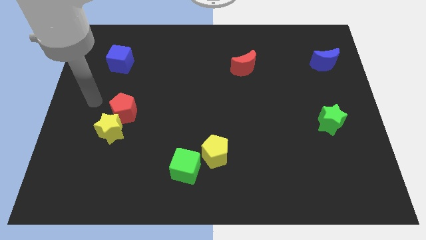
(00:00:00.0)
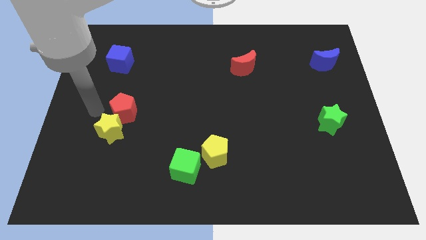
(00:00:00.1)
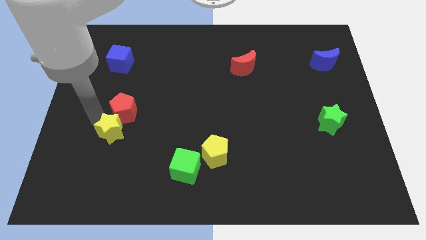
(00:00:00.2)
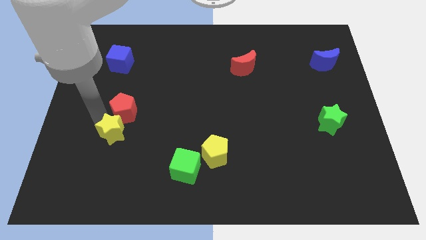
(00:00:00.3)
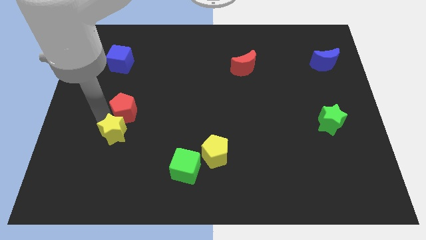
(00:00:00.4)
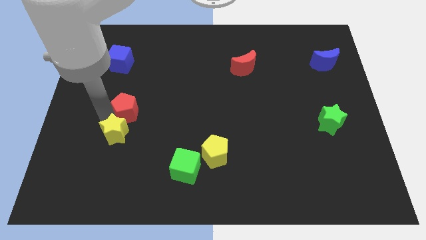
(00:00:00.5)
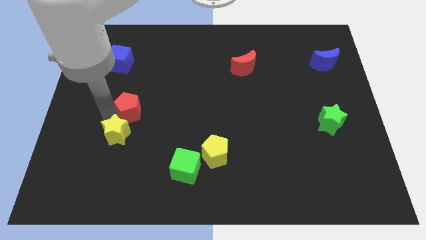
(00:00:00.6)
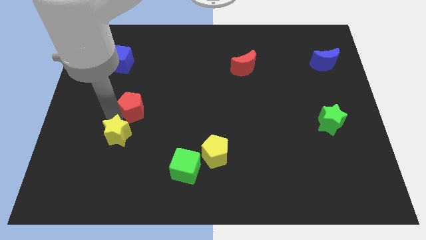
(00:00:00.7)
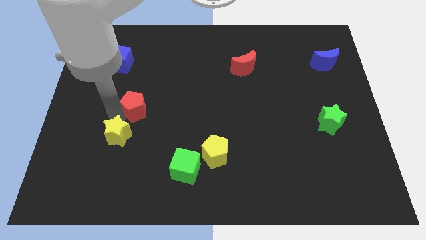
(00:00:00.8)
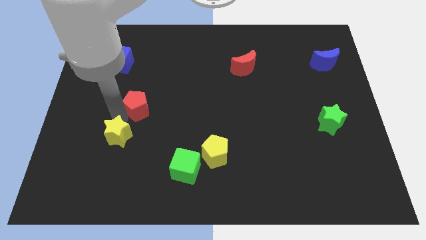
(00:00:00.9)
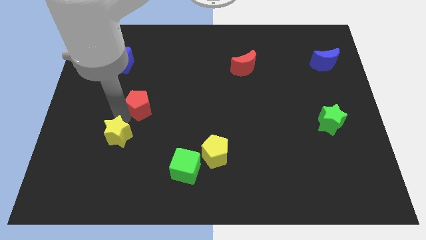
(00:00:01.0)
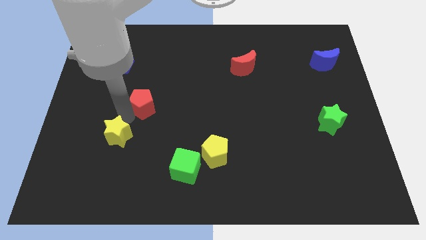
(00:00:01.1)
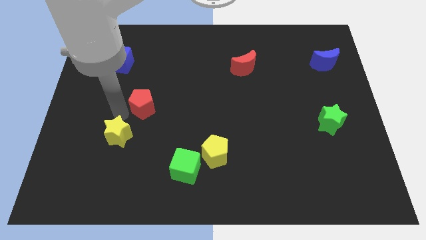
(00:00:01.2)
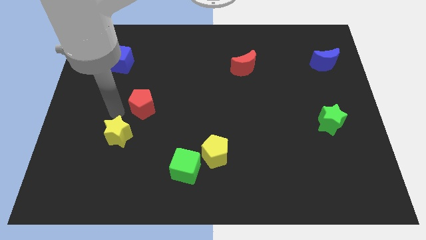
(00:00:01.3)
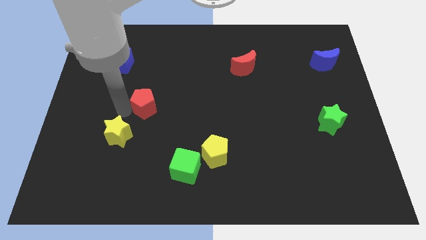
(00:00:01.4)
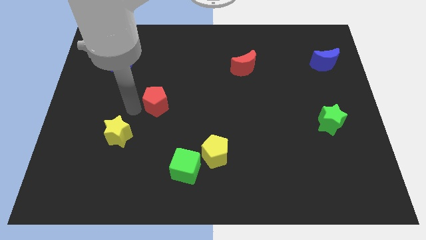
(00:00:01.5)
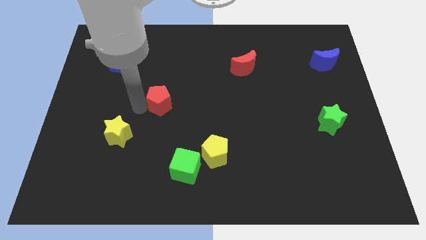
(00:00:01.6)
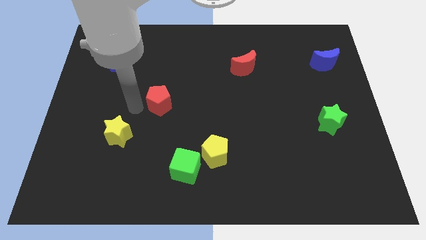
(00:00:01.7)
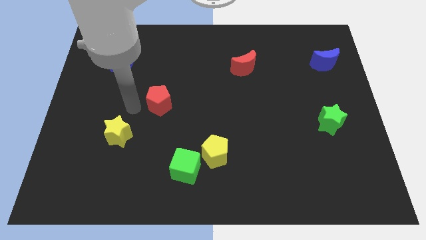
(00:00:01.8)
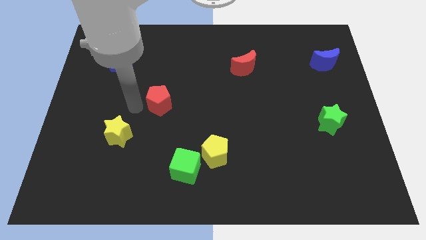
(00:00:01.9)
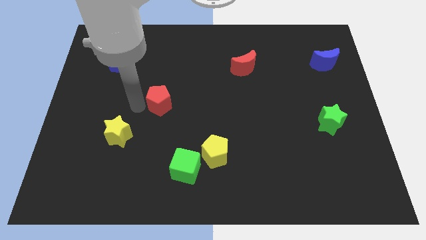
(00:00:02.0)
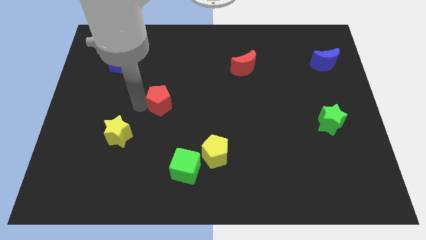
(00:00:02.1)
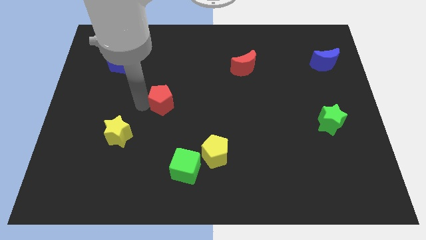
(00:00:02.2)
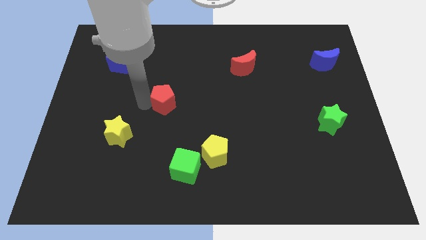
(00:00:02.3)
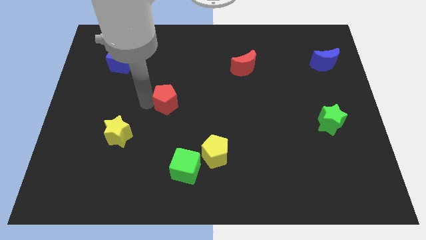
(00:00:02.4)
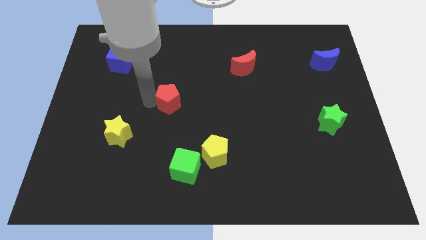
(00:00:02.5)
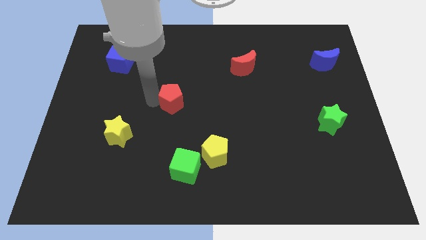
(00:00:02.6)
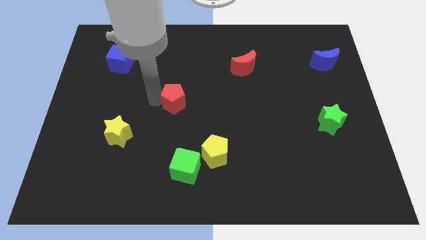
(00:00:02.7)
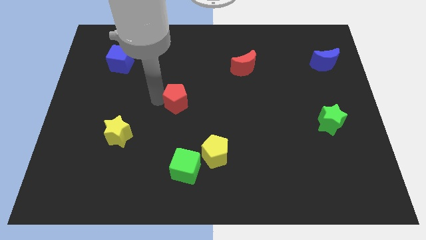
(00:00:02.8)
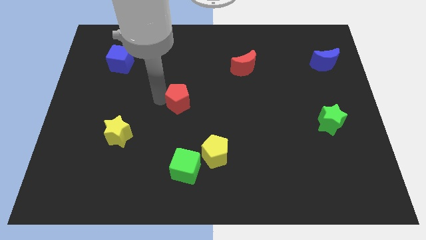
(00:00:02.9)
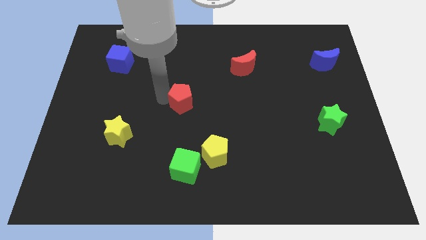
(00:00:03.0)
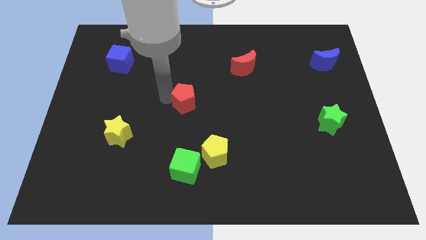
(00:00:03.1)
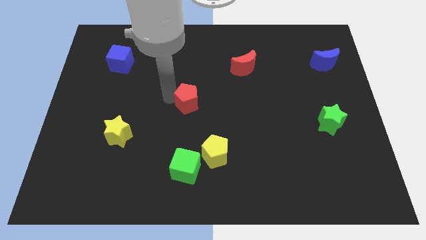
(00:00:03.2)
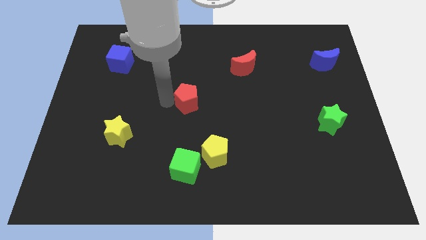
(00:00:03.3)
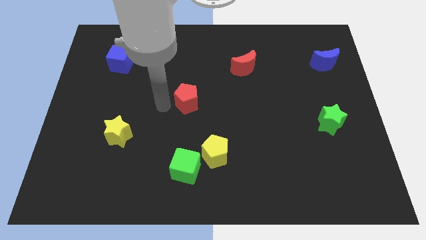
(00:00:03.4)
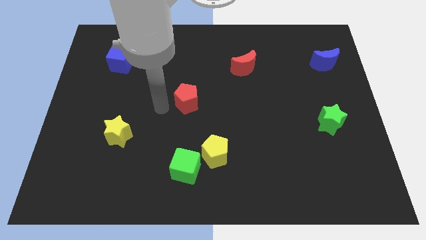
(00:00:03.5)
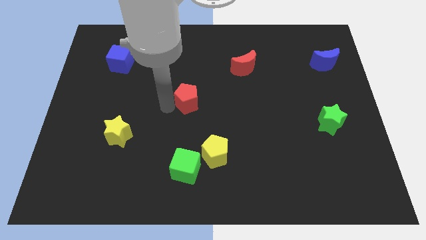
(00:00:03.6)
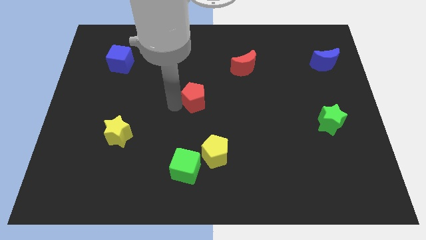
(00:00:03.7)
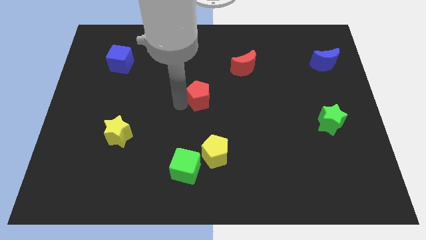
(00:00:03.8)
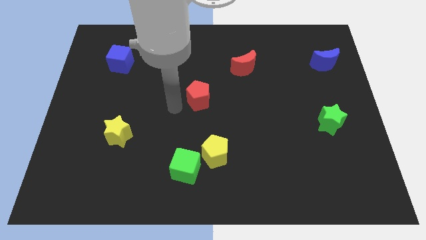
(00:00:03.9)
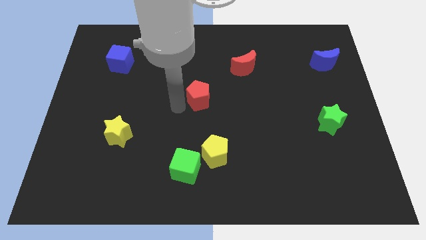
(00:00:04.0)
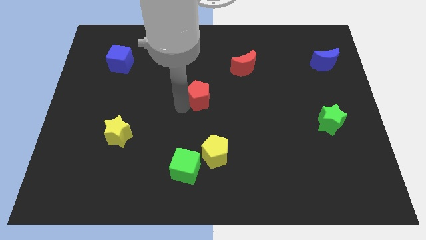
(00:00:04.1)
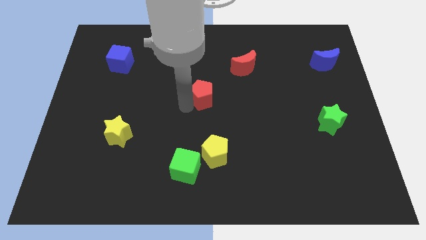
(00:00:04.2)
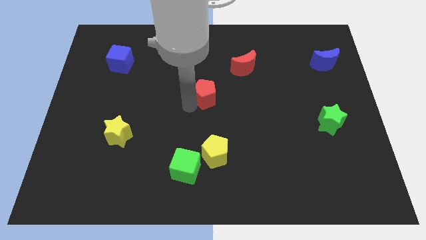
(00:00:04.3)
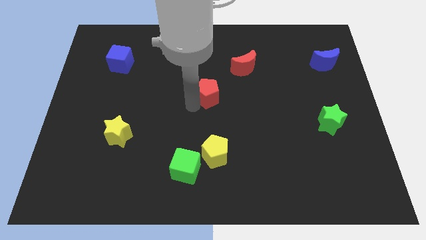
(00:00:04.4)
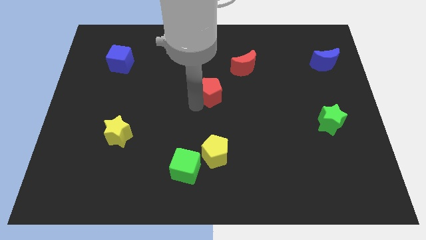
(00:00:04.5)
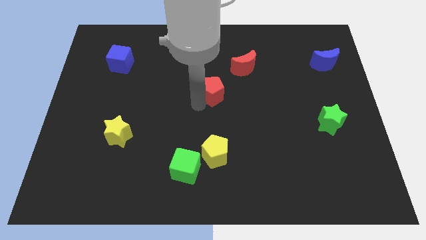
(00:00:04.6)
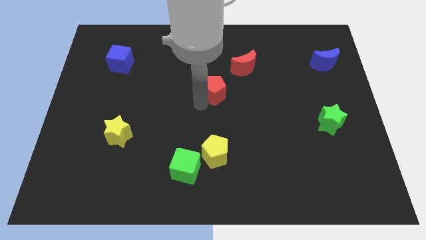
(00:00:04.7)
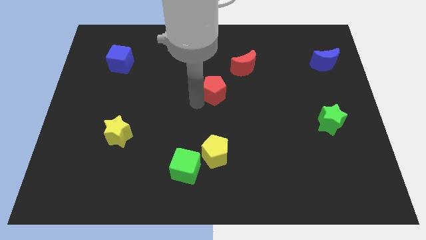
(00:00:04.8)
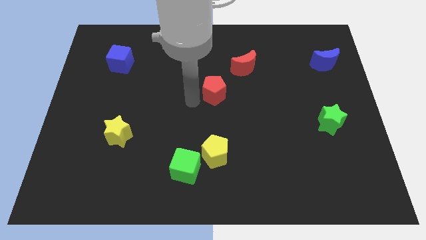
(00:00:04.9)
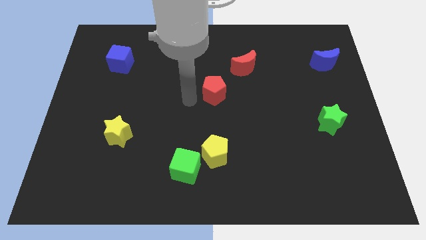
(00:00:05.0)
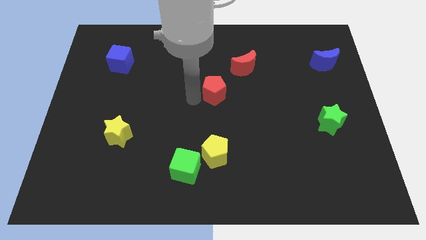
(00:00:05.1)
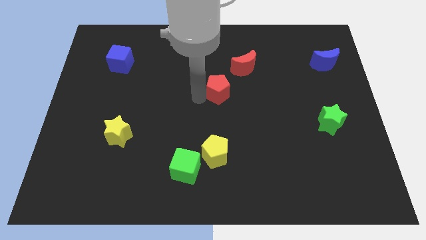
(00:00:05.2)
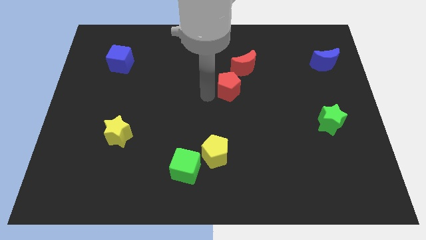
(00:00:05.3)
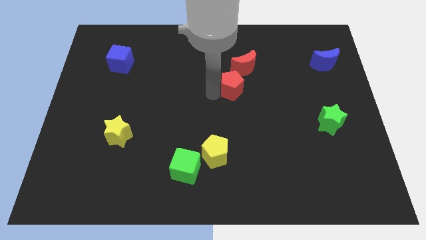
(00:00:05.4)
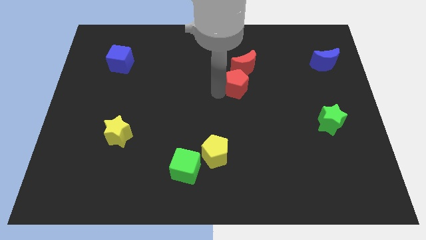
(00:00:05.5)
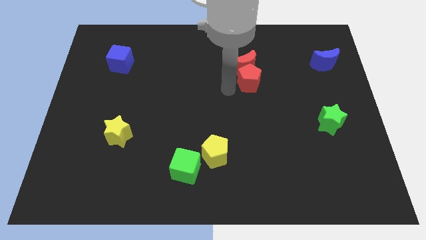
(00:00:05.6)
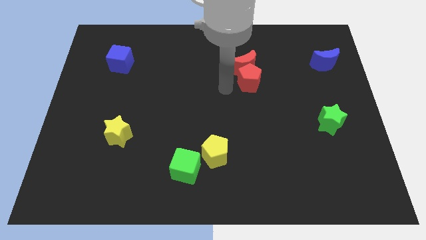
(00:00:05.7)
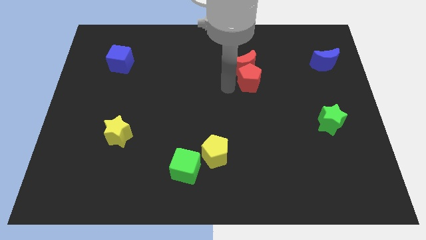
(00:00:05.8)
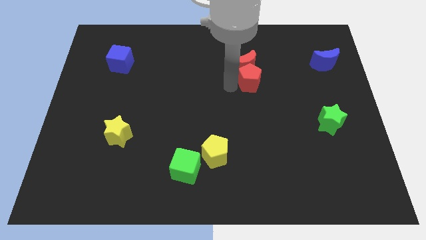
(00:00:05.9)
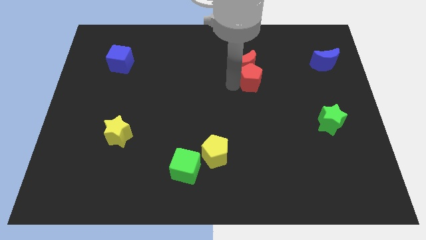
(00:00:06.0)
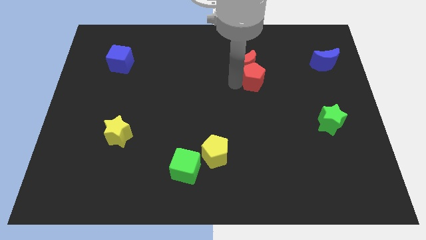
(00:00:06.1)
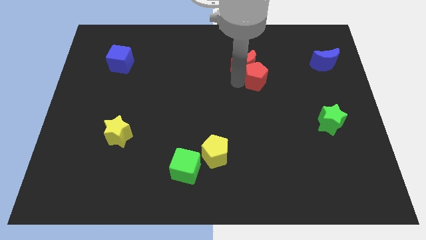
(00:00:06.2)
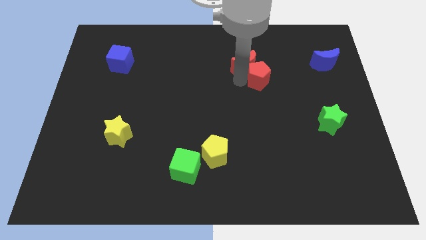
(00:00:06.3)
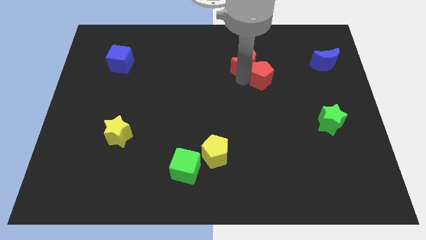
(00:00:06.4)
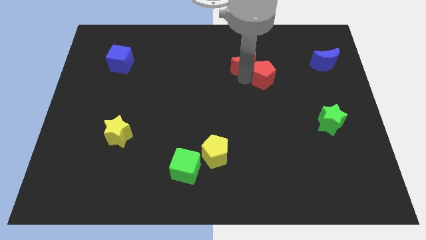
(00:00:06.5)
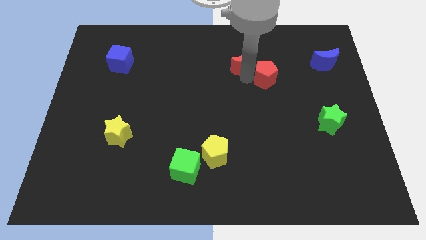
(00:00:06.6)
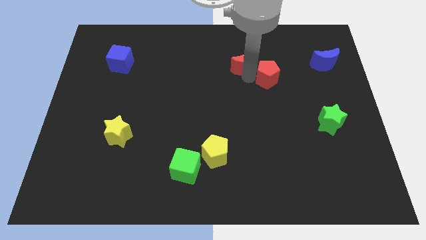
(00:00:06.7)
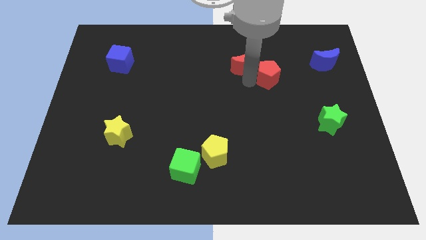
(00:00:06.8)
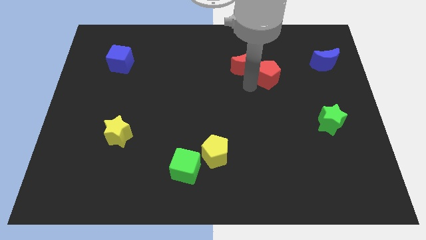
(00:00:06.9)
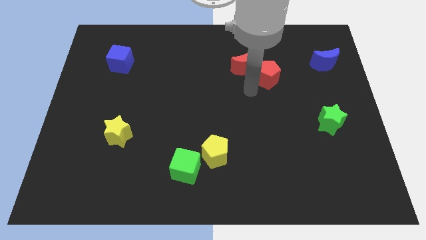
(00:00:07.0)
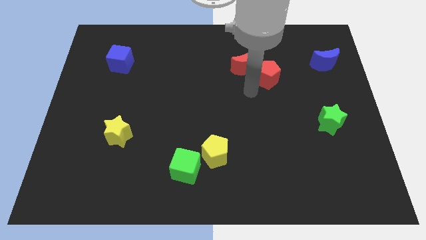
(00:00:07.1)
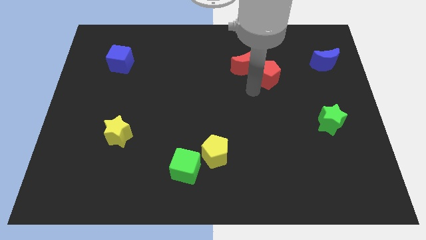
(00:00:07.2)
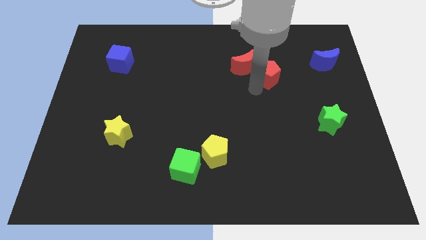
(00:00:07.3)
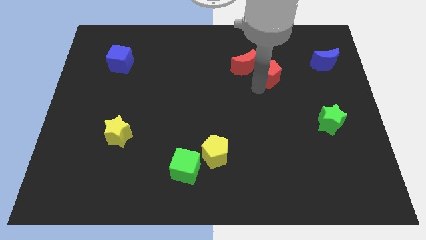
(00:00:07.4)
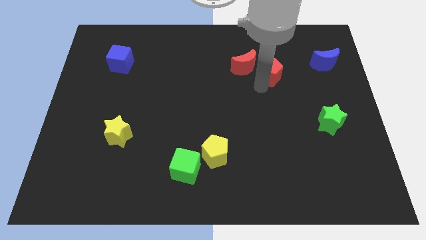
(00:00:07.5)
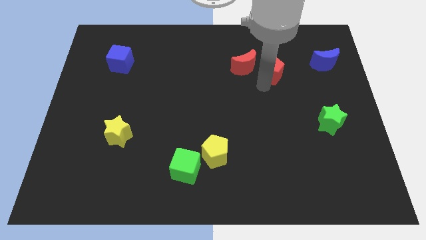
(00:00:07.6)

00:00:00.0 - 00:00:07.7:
put the red pentagon left of the blue moon
